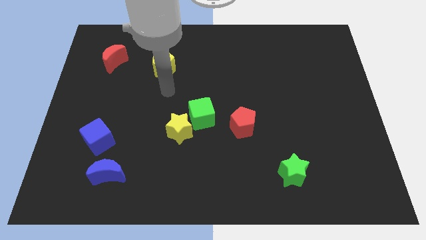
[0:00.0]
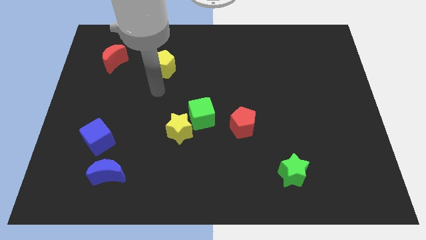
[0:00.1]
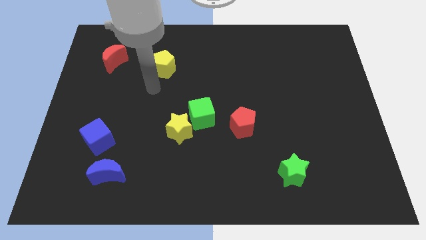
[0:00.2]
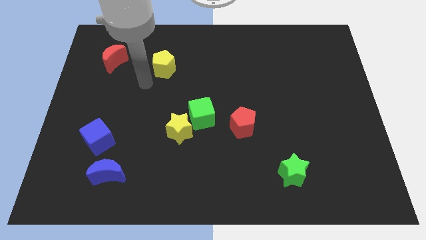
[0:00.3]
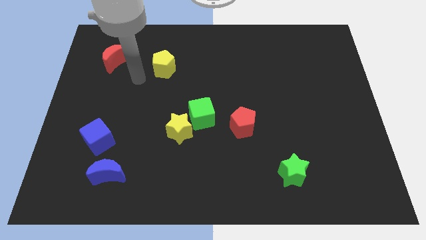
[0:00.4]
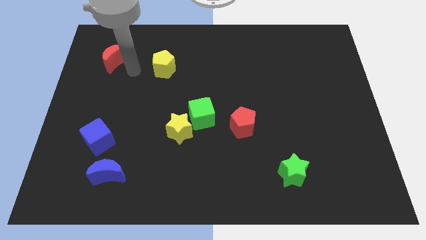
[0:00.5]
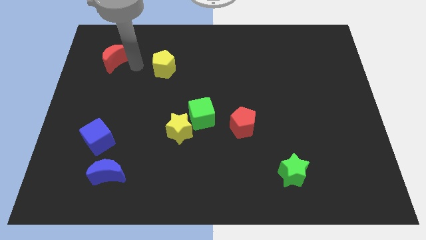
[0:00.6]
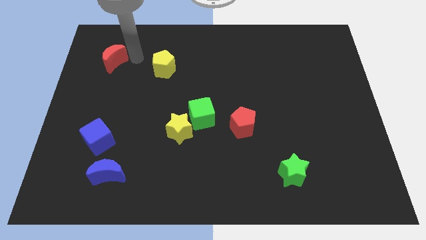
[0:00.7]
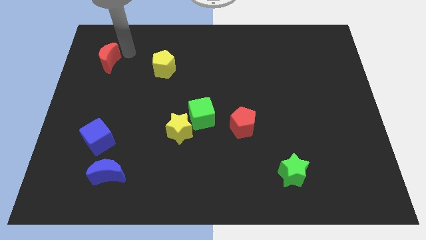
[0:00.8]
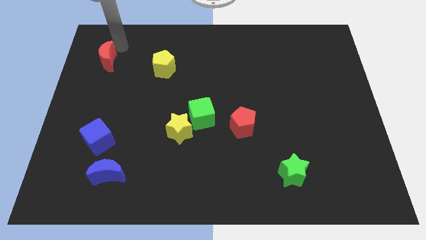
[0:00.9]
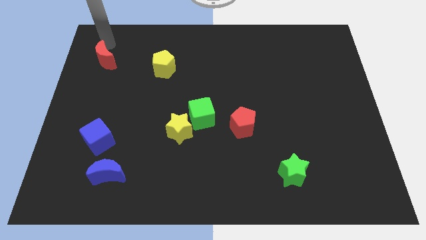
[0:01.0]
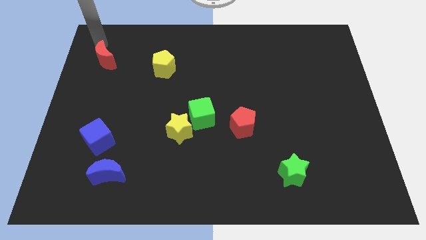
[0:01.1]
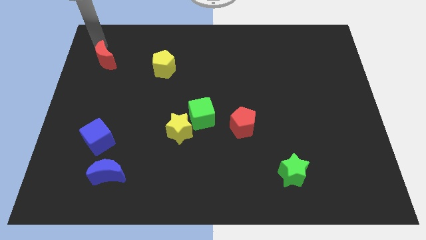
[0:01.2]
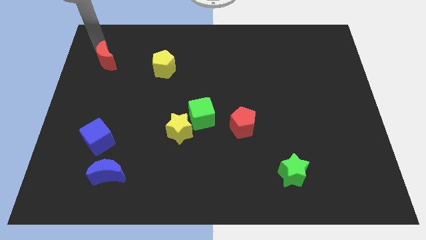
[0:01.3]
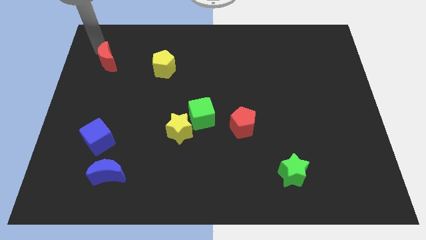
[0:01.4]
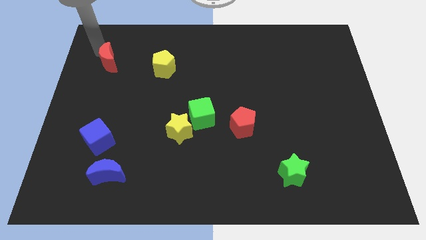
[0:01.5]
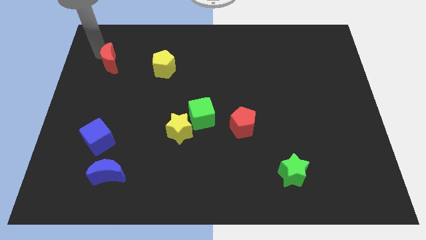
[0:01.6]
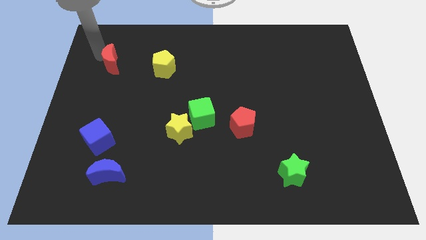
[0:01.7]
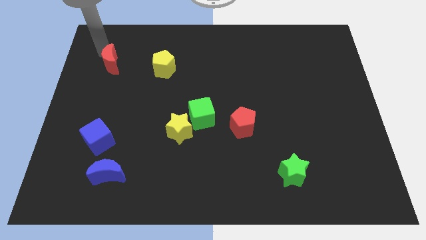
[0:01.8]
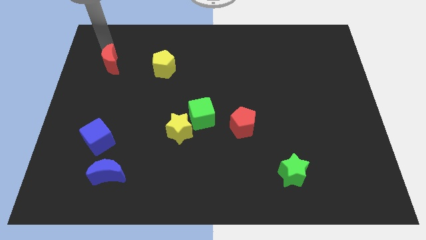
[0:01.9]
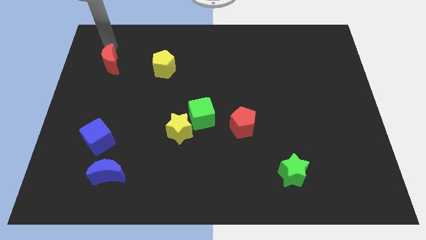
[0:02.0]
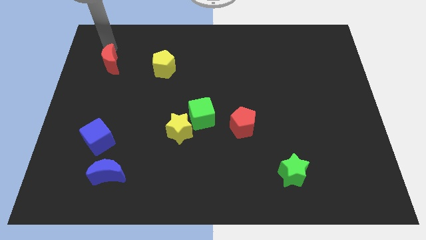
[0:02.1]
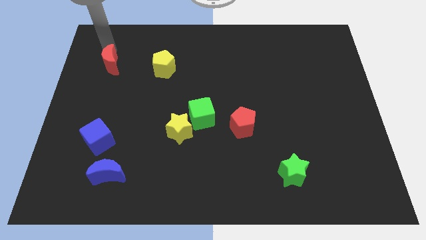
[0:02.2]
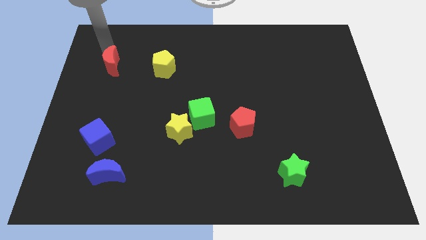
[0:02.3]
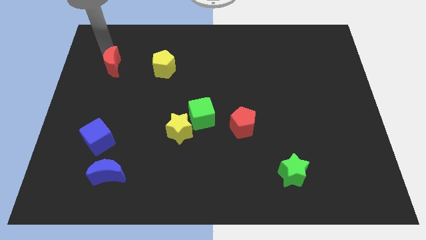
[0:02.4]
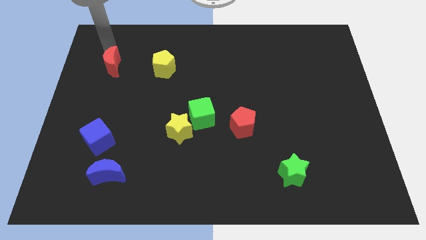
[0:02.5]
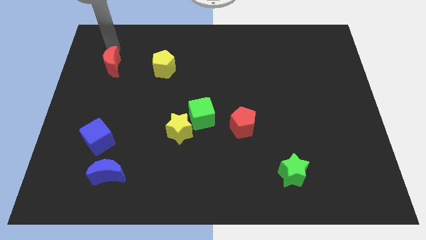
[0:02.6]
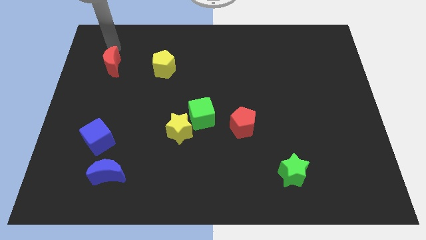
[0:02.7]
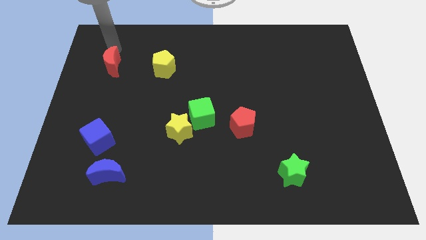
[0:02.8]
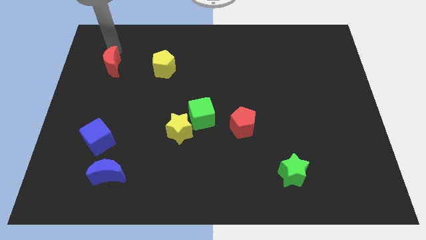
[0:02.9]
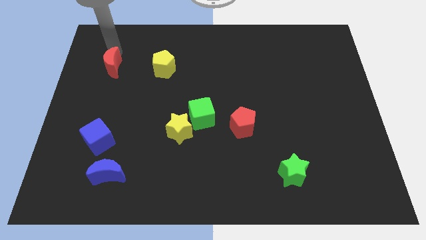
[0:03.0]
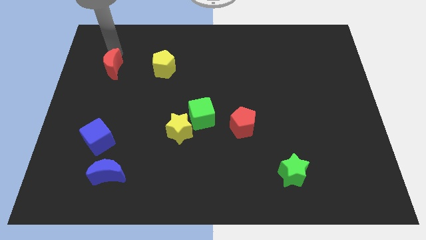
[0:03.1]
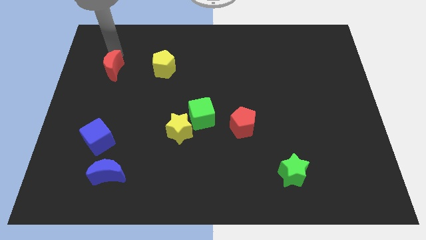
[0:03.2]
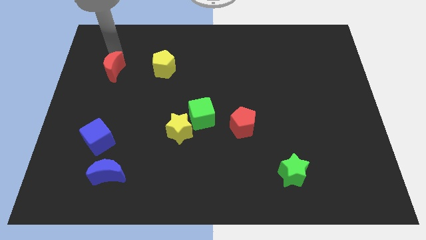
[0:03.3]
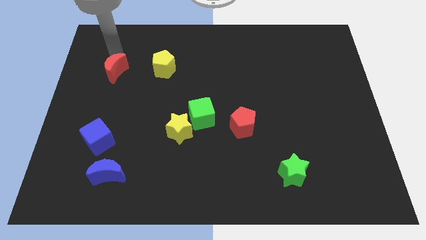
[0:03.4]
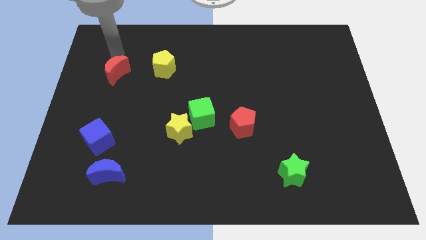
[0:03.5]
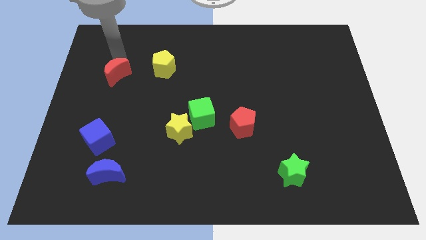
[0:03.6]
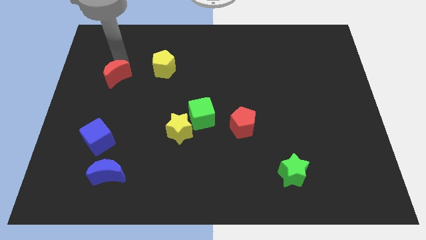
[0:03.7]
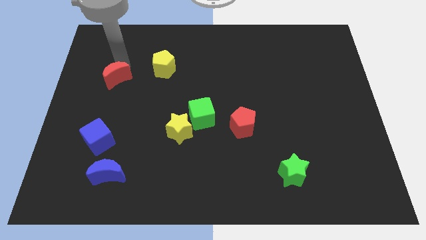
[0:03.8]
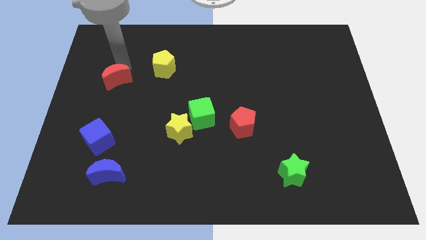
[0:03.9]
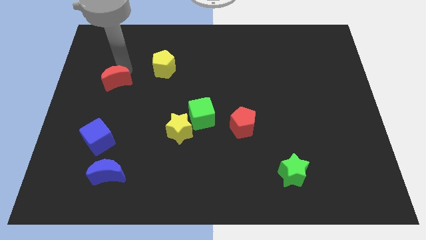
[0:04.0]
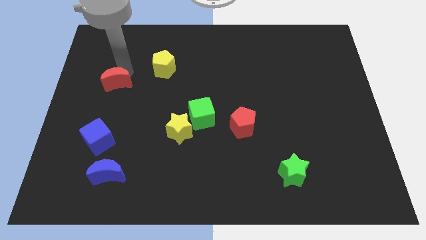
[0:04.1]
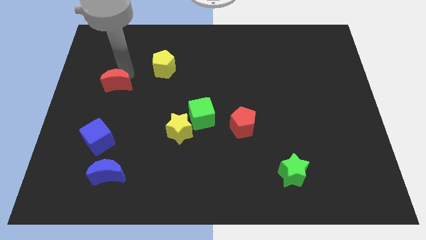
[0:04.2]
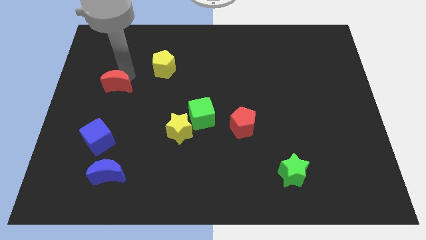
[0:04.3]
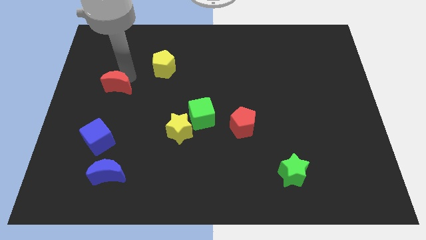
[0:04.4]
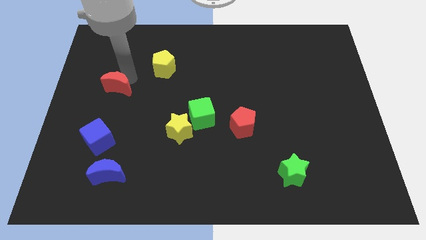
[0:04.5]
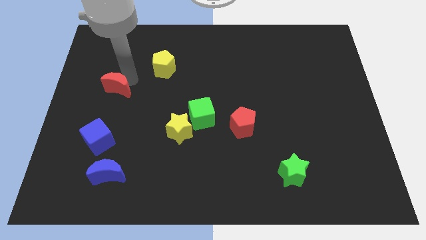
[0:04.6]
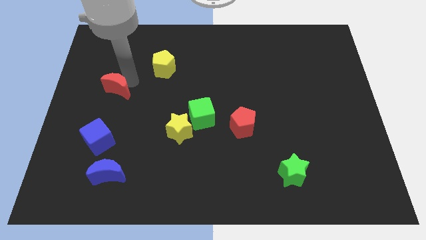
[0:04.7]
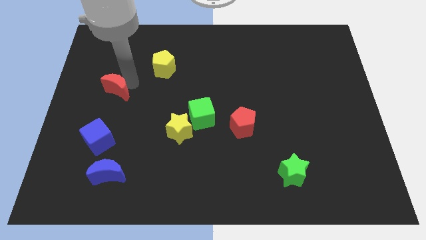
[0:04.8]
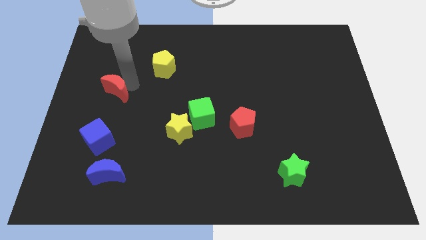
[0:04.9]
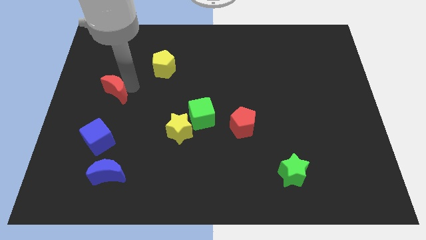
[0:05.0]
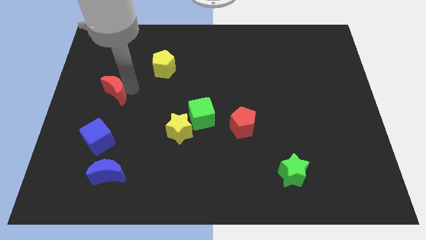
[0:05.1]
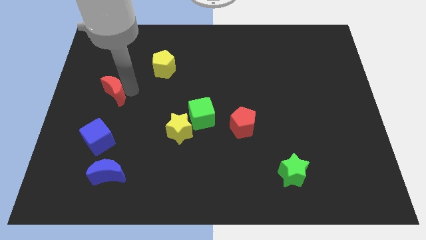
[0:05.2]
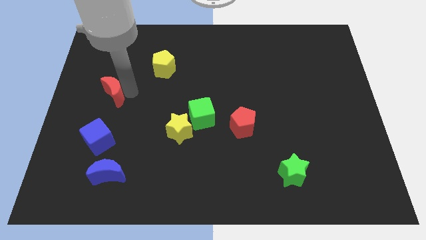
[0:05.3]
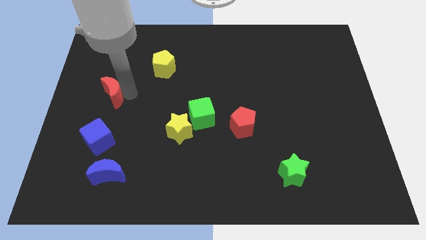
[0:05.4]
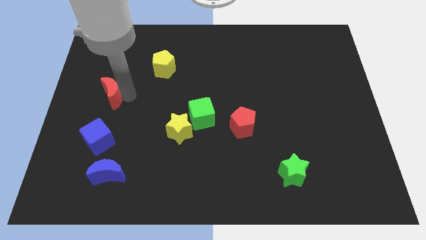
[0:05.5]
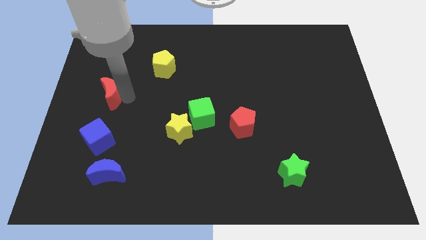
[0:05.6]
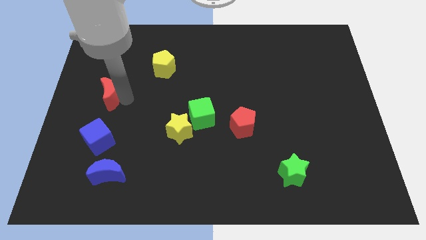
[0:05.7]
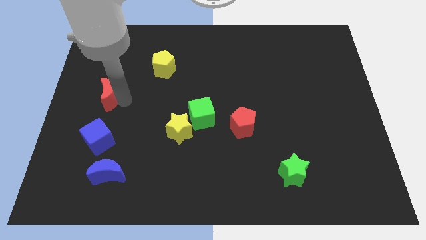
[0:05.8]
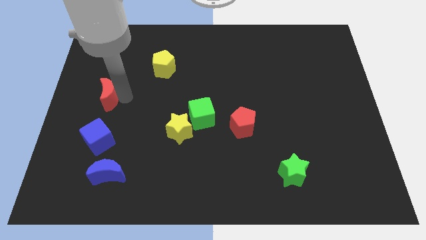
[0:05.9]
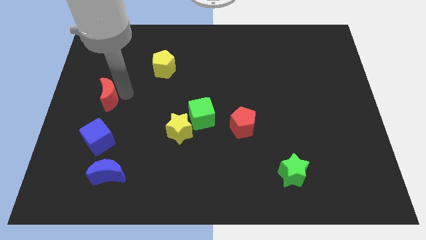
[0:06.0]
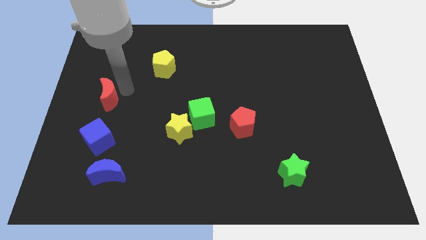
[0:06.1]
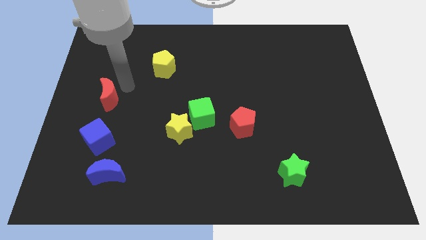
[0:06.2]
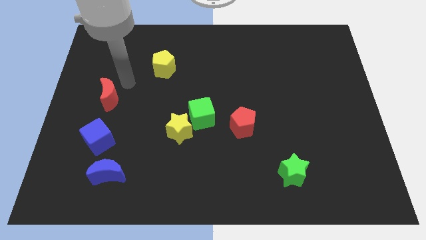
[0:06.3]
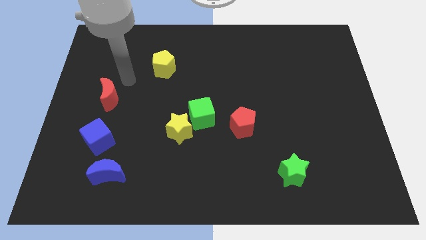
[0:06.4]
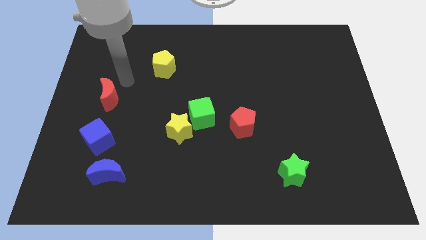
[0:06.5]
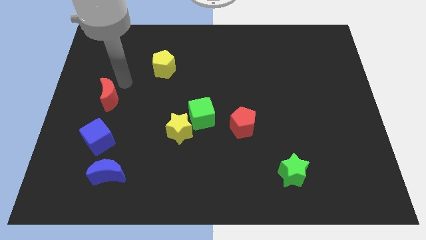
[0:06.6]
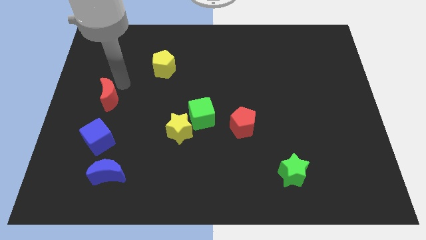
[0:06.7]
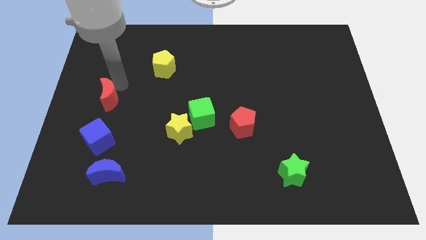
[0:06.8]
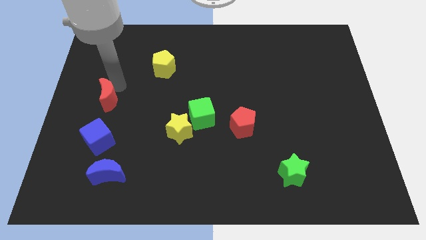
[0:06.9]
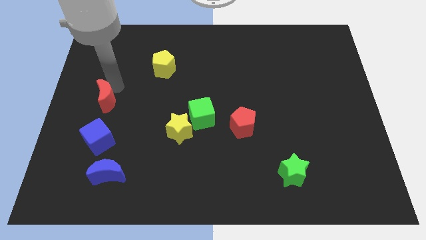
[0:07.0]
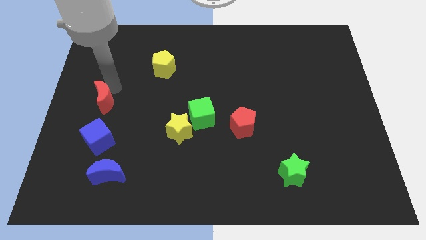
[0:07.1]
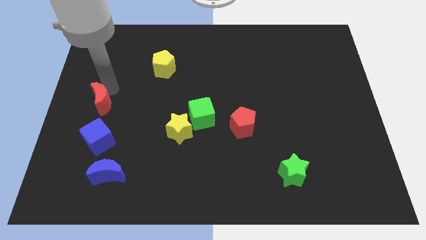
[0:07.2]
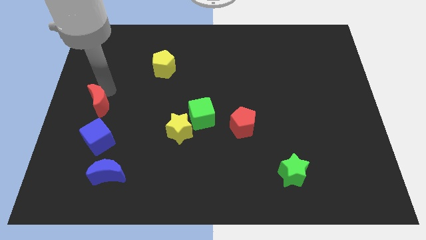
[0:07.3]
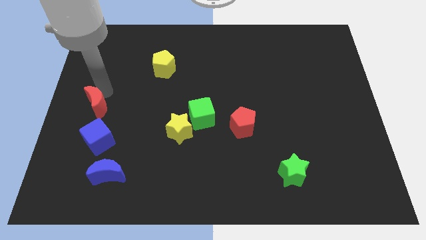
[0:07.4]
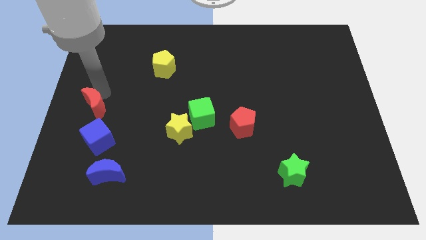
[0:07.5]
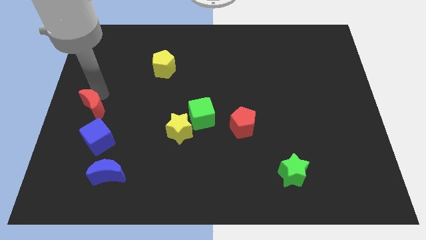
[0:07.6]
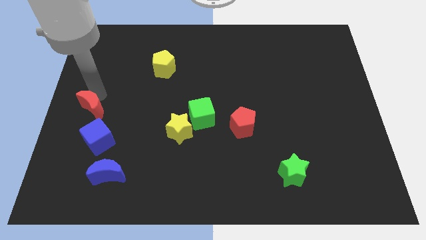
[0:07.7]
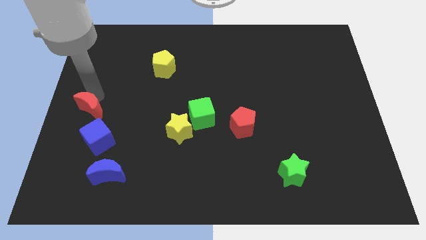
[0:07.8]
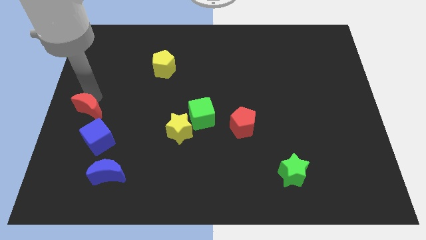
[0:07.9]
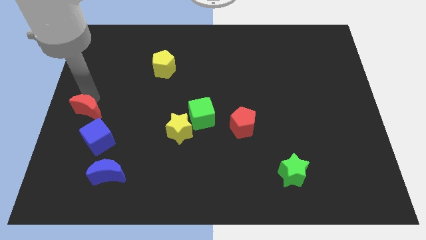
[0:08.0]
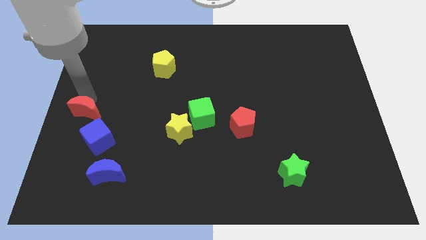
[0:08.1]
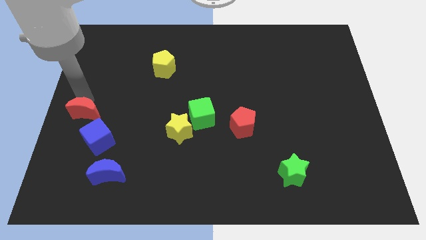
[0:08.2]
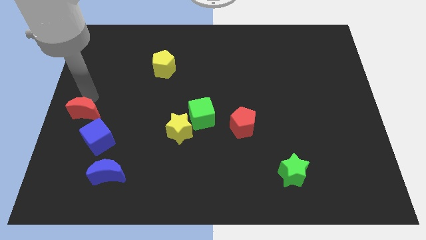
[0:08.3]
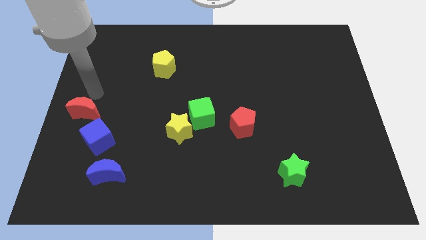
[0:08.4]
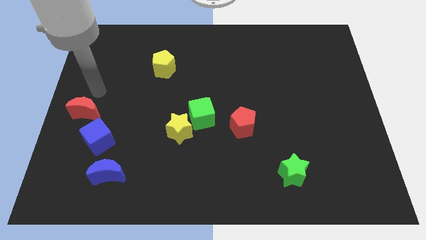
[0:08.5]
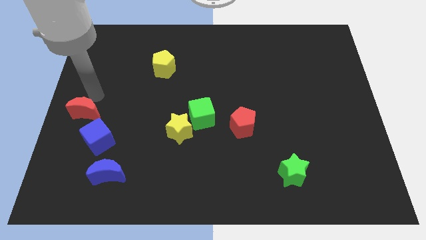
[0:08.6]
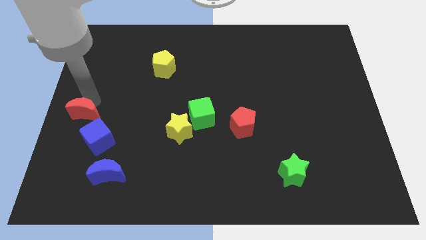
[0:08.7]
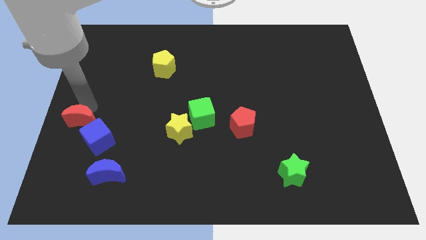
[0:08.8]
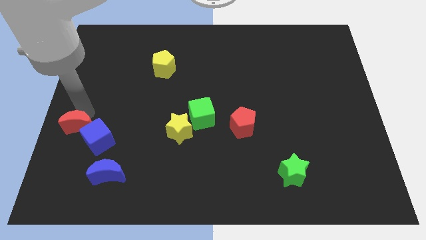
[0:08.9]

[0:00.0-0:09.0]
move the red moon downwards
